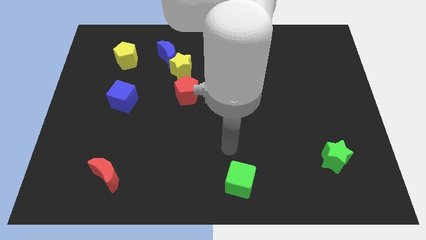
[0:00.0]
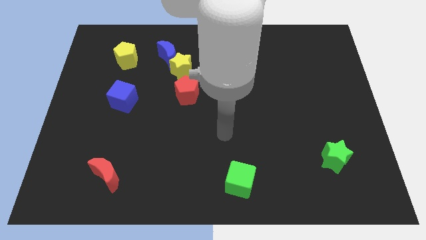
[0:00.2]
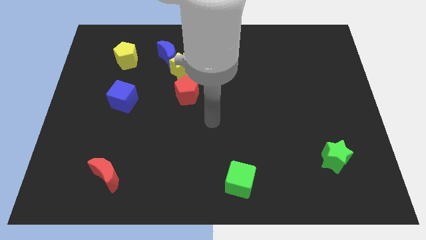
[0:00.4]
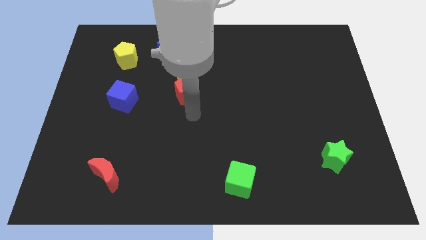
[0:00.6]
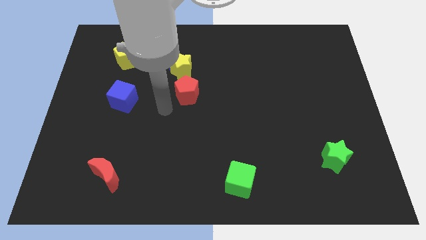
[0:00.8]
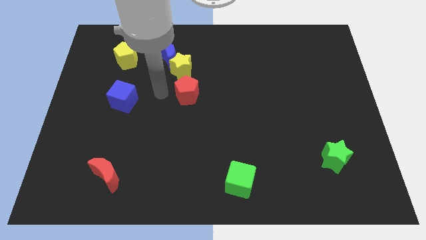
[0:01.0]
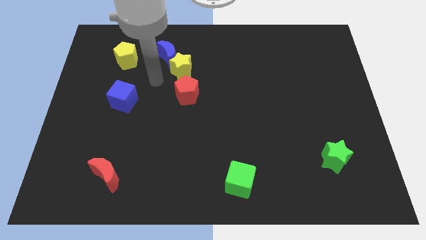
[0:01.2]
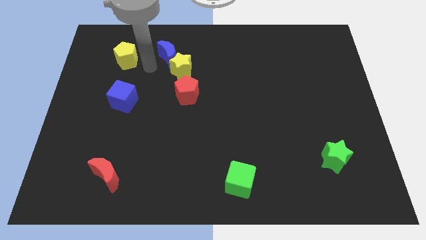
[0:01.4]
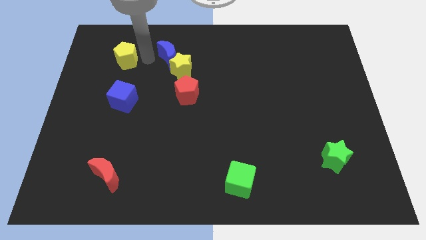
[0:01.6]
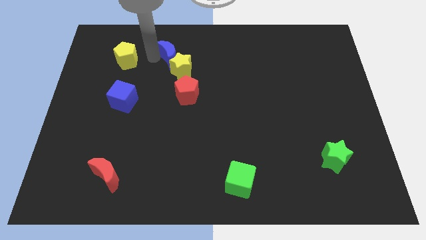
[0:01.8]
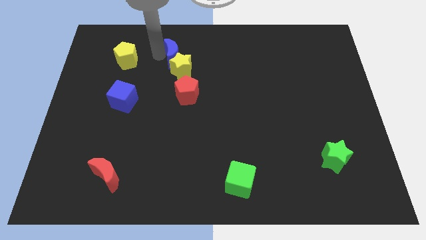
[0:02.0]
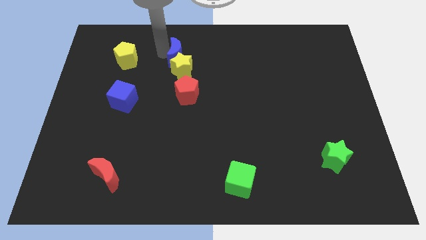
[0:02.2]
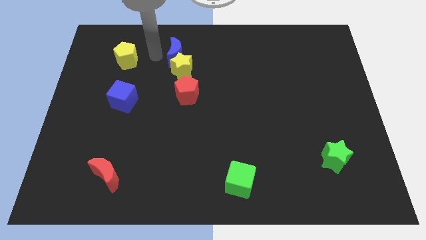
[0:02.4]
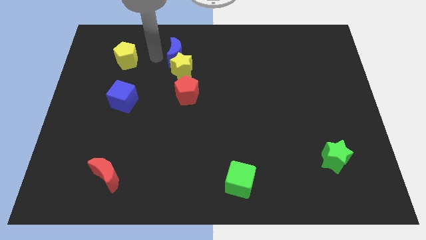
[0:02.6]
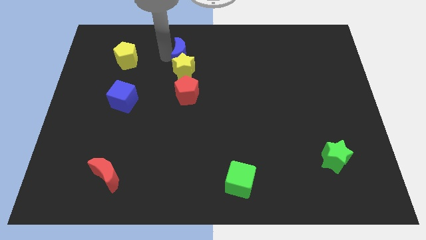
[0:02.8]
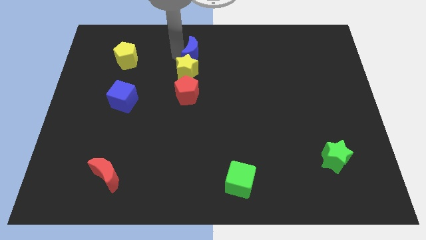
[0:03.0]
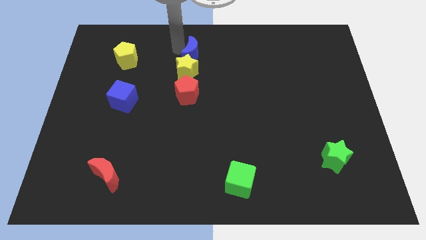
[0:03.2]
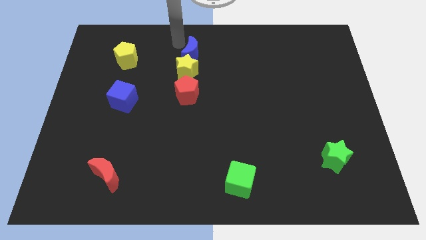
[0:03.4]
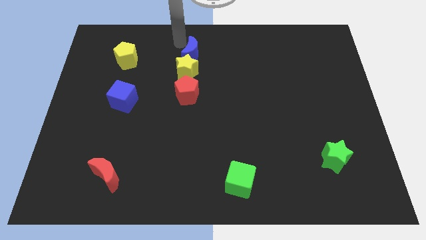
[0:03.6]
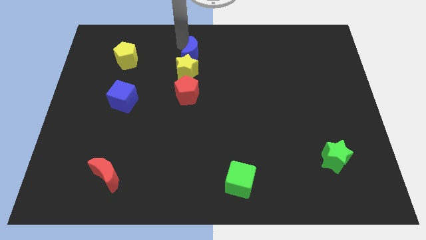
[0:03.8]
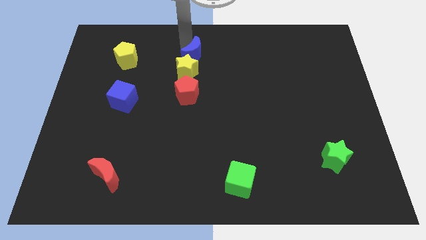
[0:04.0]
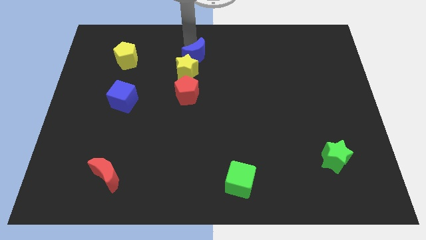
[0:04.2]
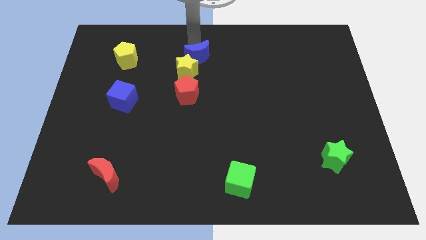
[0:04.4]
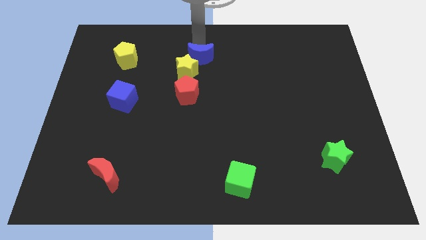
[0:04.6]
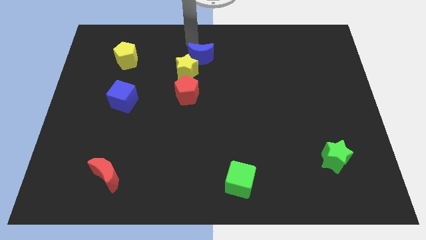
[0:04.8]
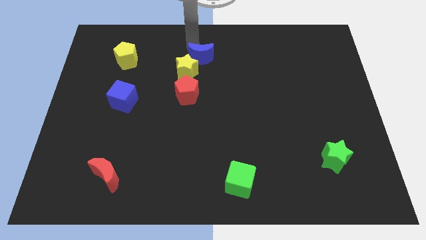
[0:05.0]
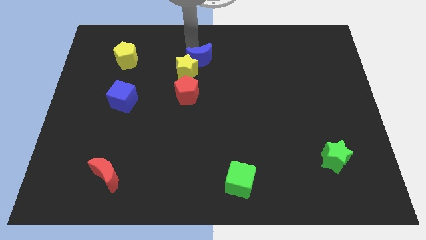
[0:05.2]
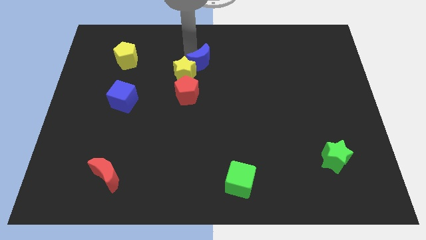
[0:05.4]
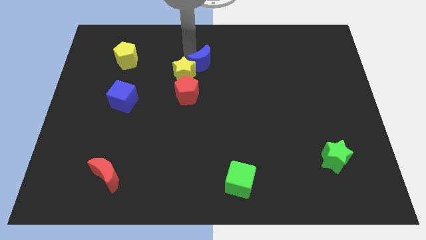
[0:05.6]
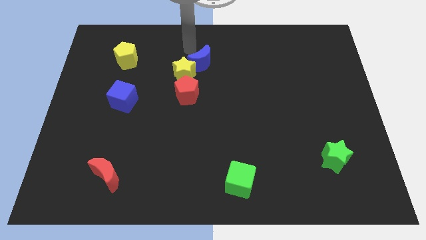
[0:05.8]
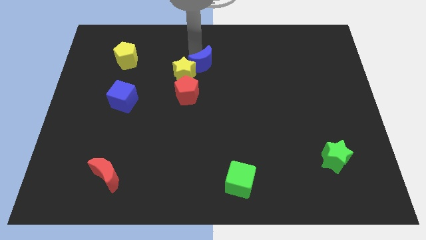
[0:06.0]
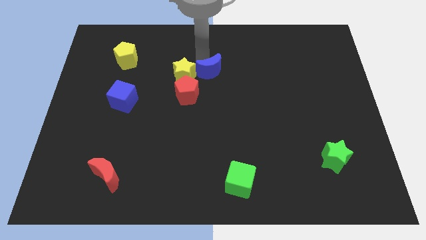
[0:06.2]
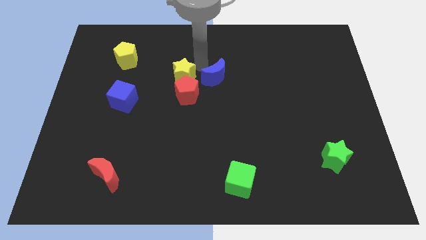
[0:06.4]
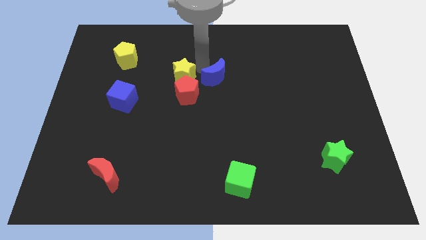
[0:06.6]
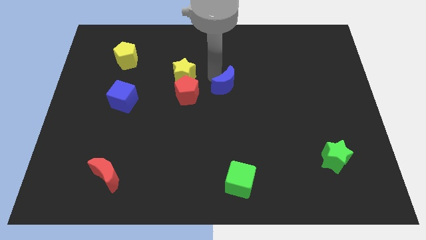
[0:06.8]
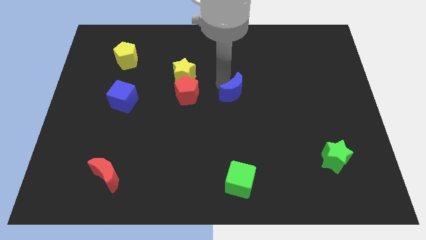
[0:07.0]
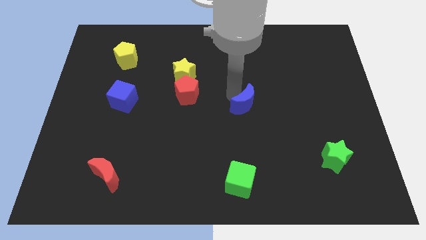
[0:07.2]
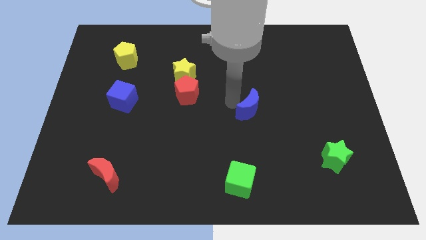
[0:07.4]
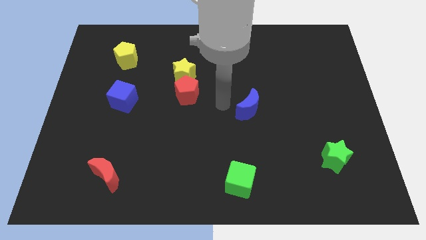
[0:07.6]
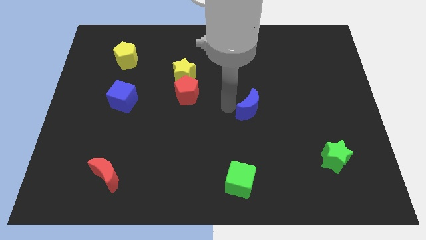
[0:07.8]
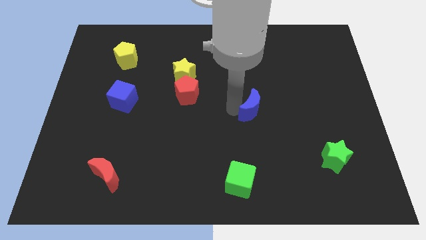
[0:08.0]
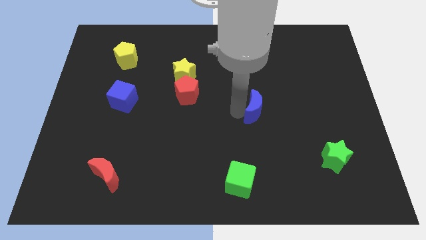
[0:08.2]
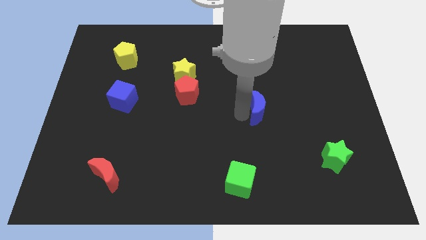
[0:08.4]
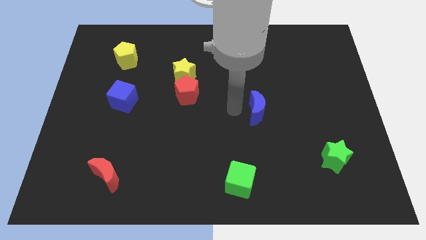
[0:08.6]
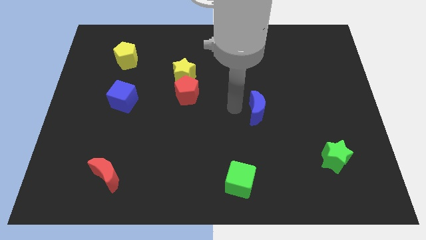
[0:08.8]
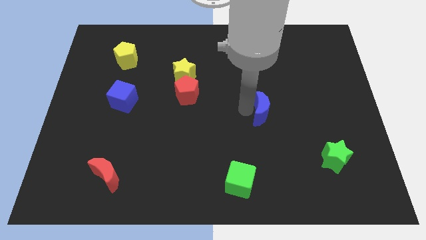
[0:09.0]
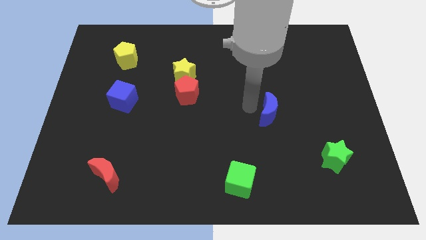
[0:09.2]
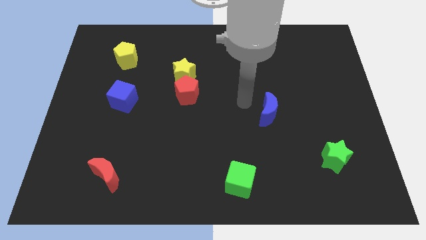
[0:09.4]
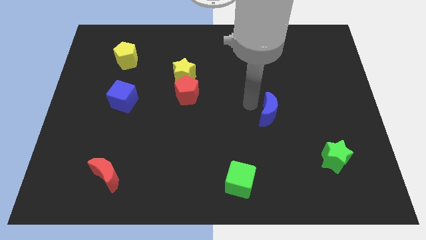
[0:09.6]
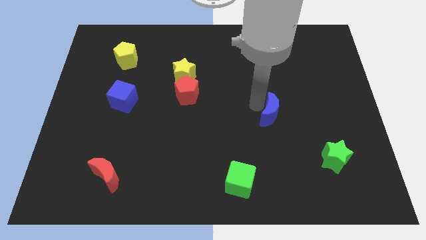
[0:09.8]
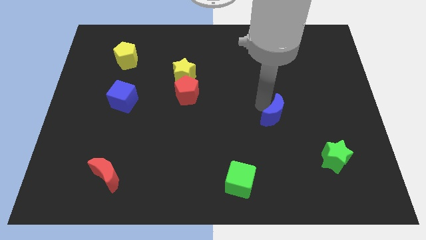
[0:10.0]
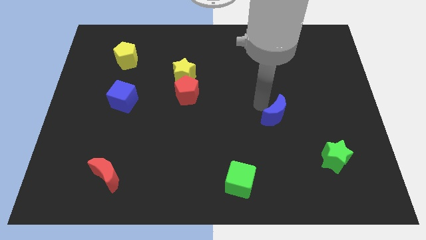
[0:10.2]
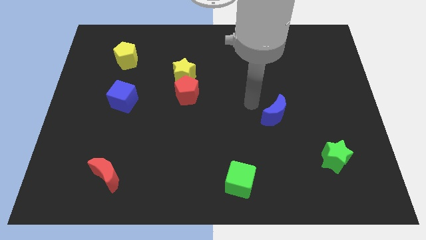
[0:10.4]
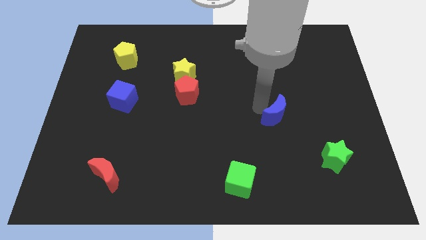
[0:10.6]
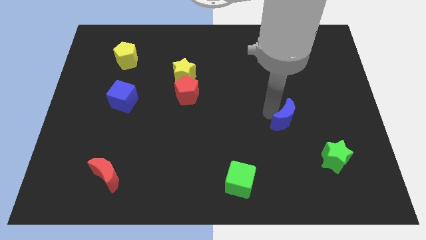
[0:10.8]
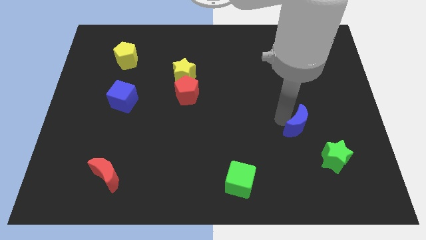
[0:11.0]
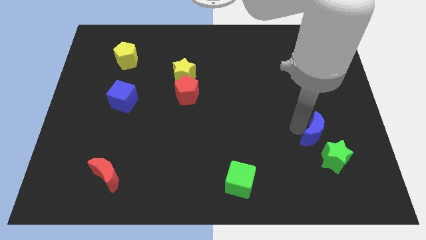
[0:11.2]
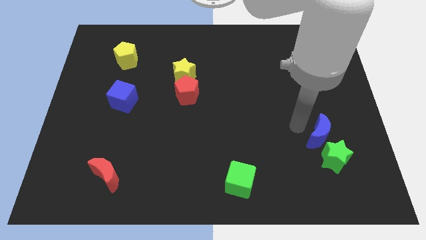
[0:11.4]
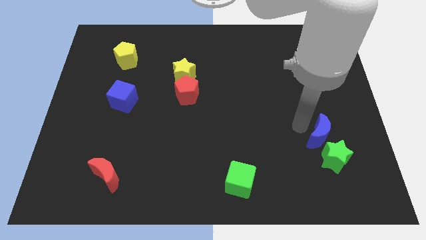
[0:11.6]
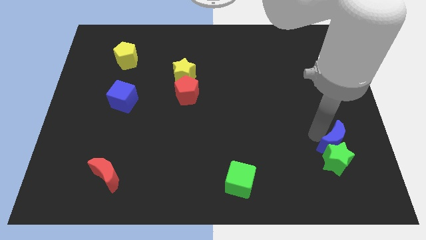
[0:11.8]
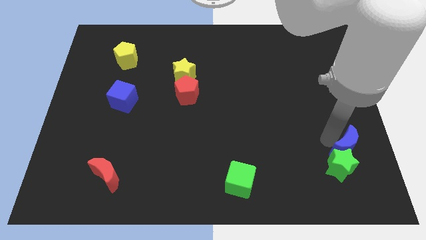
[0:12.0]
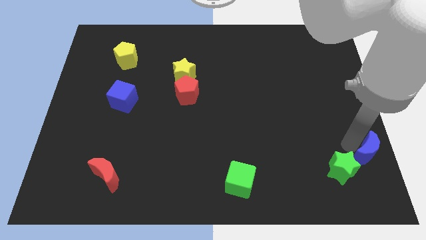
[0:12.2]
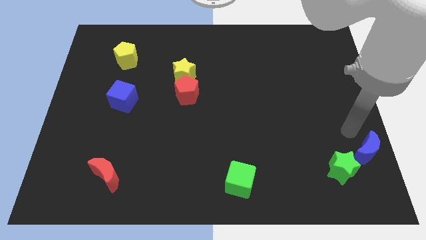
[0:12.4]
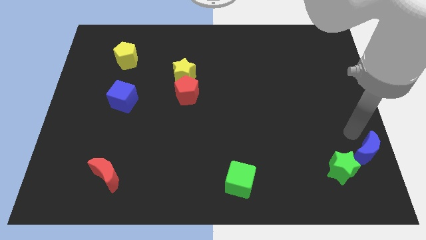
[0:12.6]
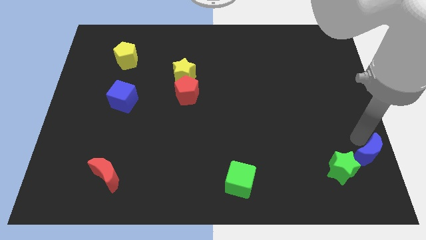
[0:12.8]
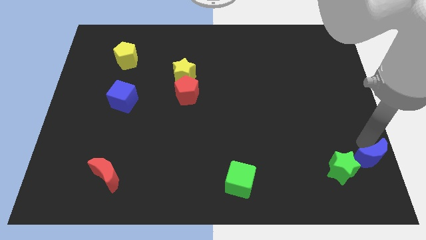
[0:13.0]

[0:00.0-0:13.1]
move the blue moon to the bottom right
